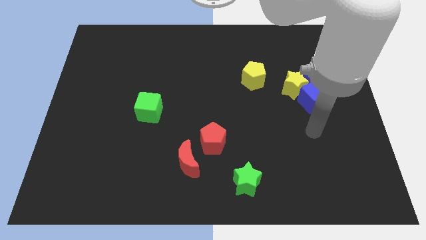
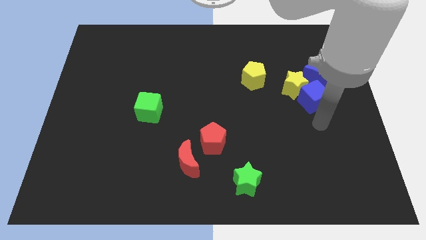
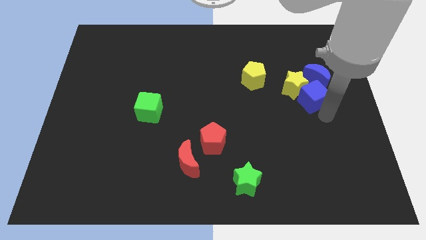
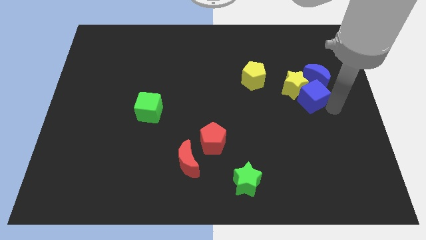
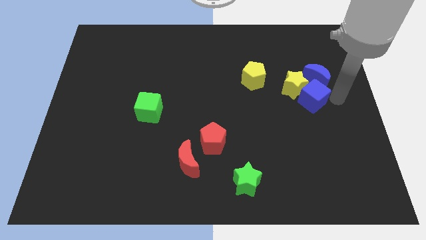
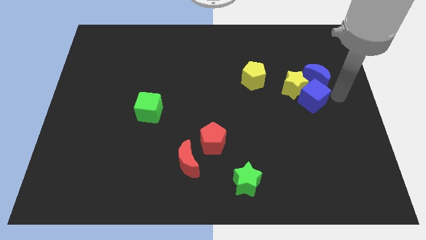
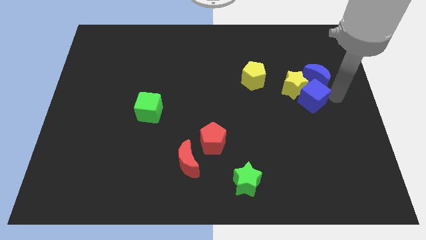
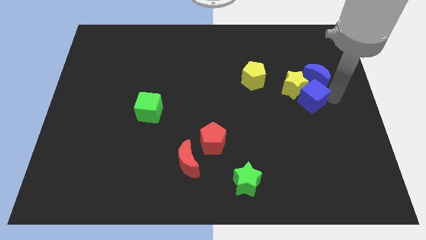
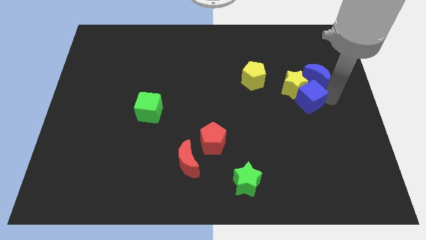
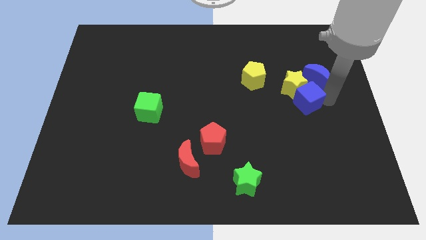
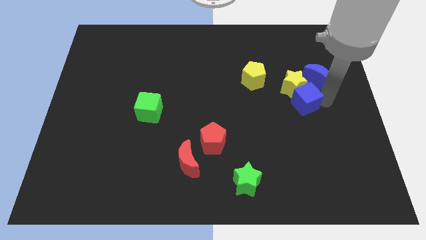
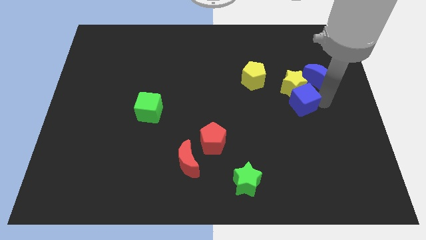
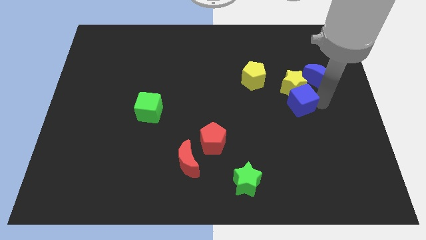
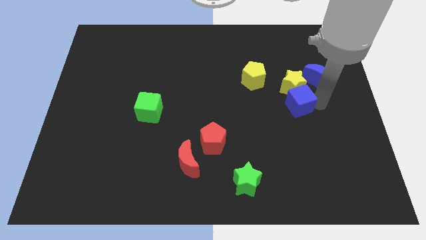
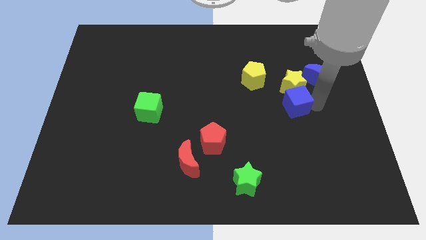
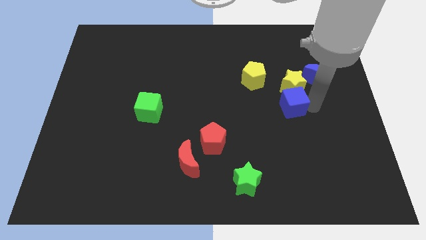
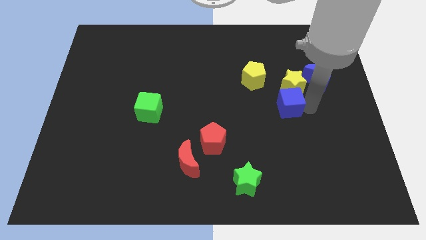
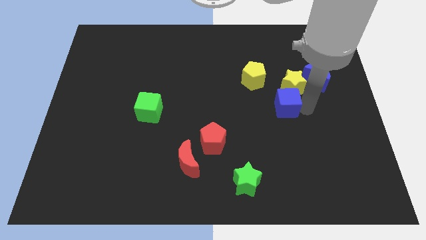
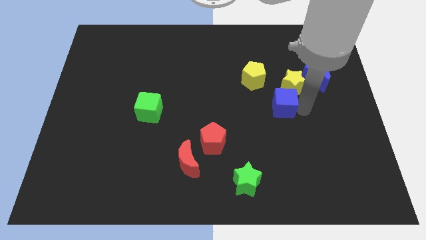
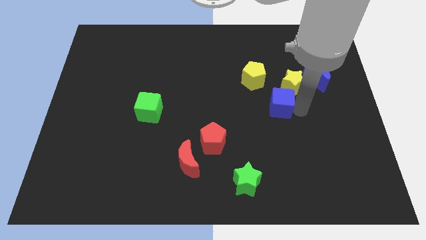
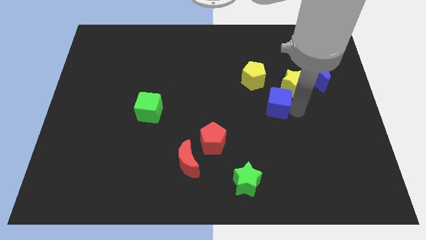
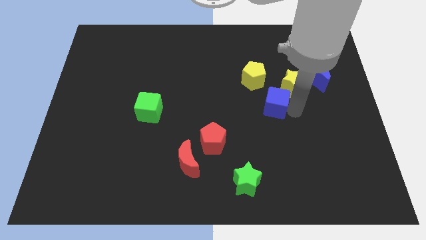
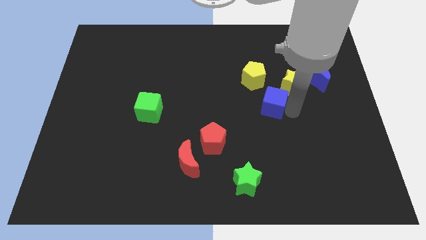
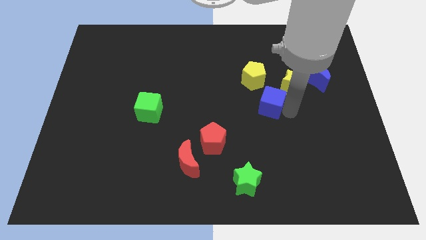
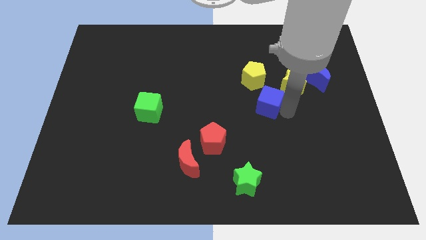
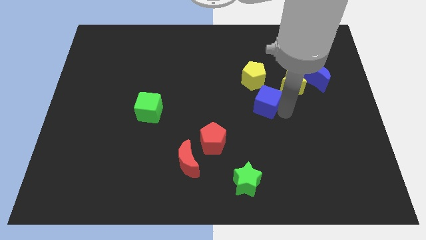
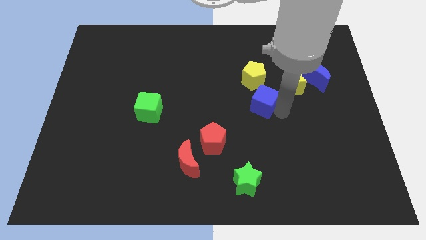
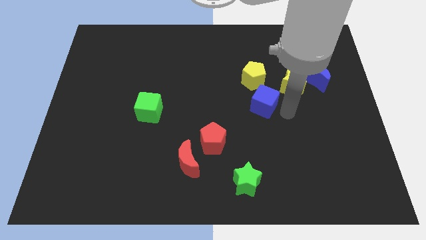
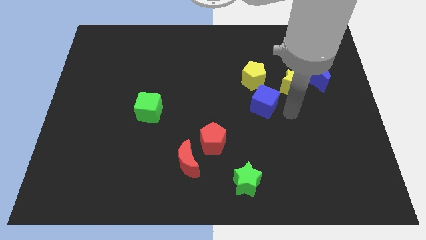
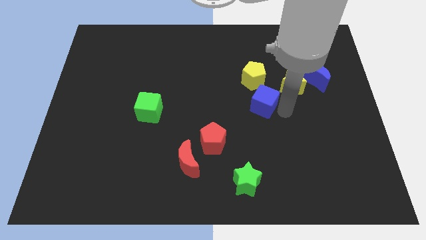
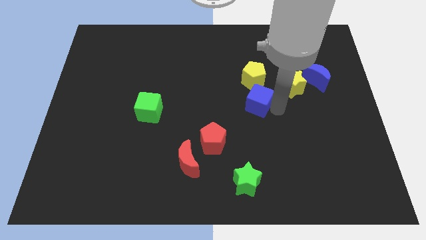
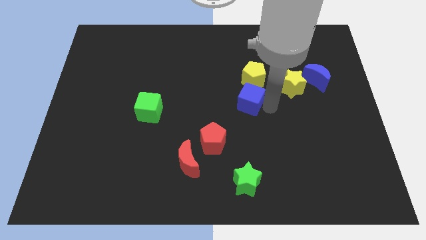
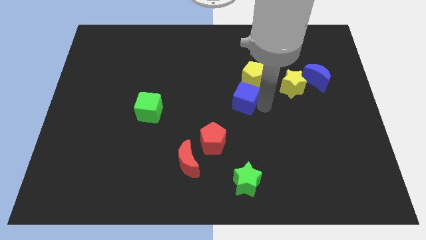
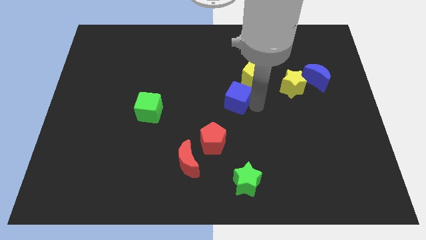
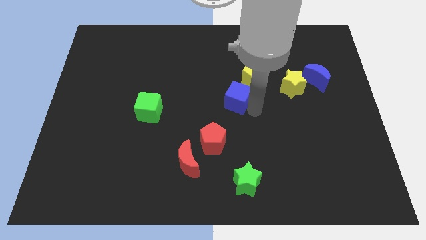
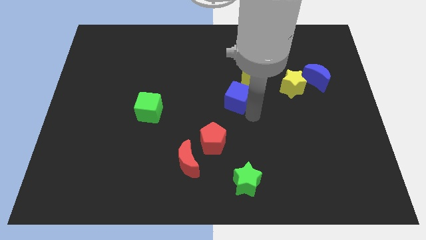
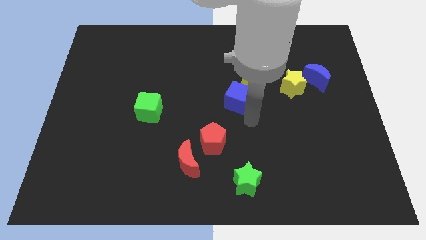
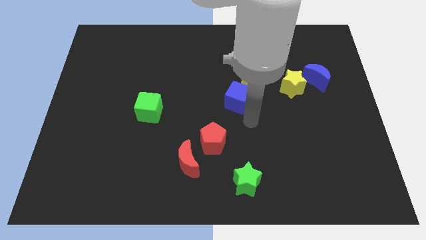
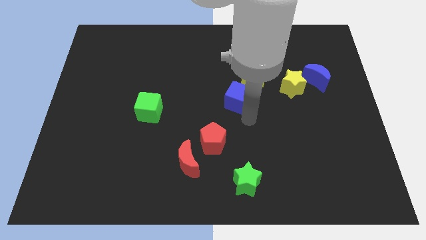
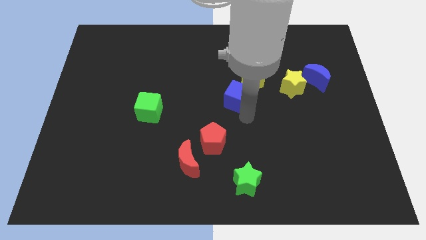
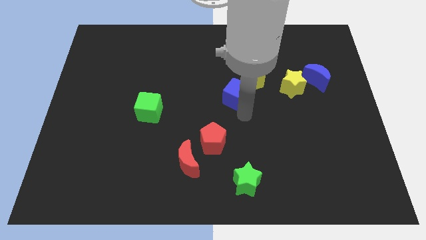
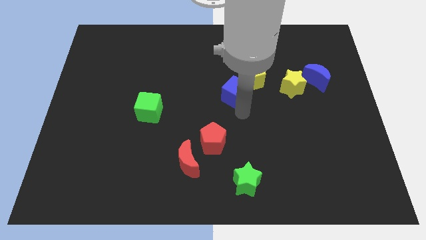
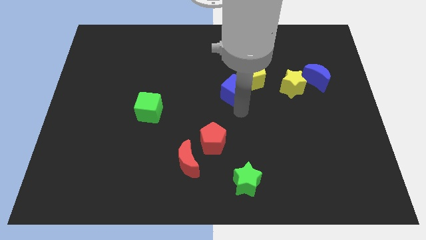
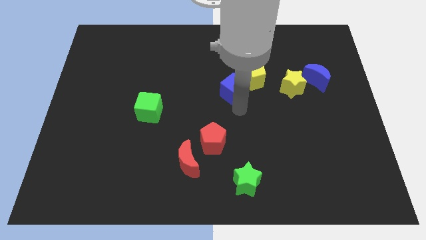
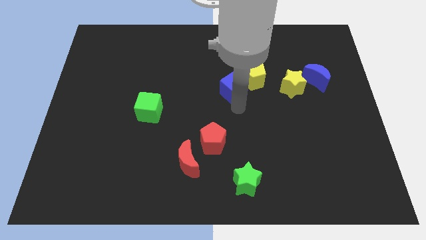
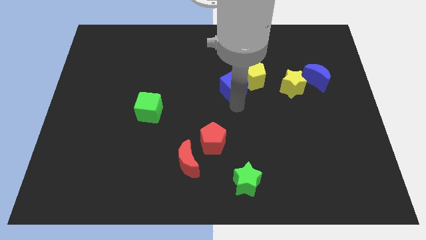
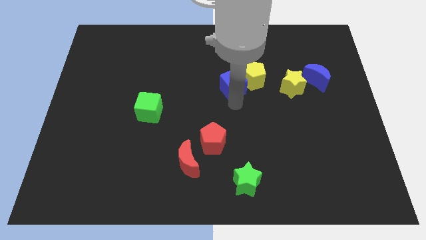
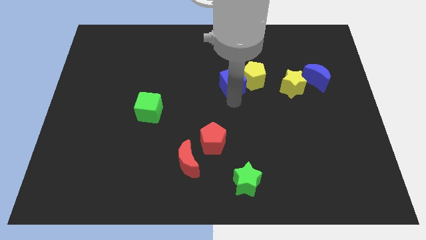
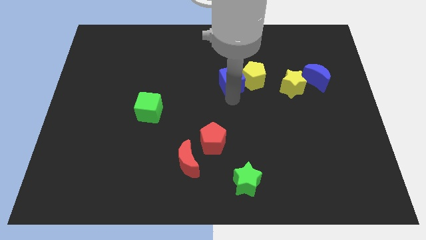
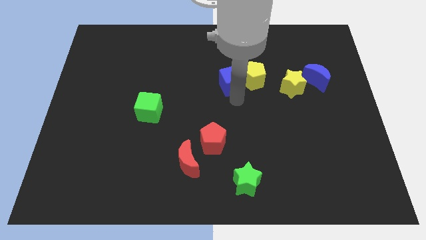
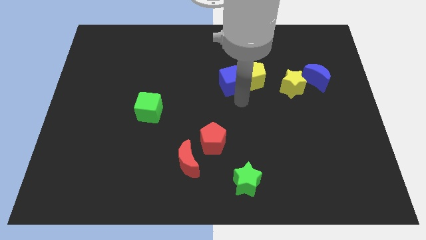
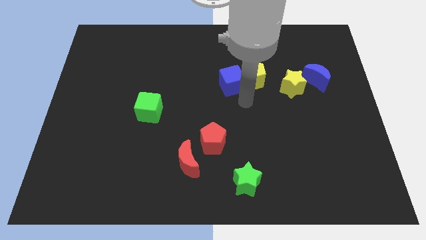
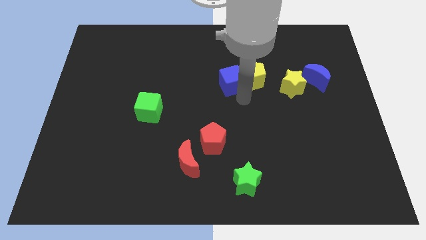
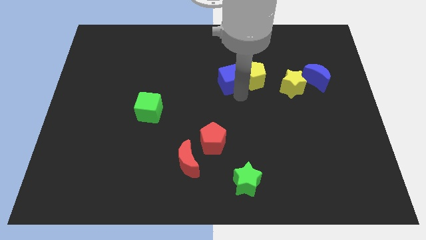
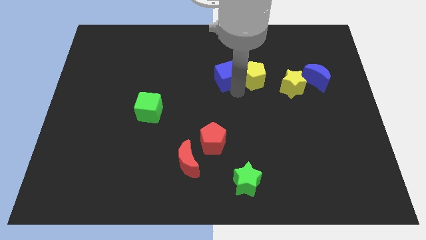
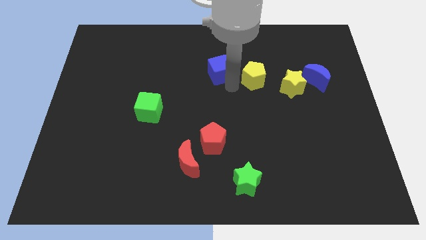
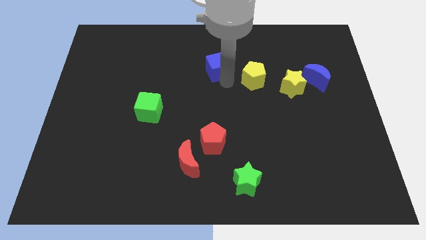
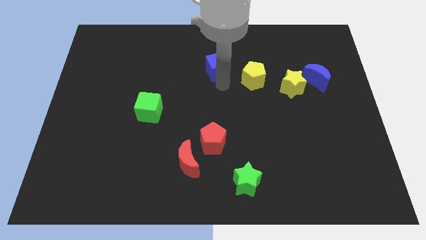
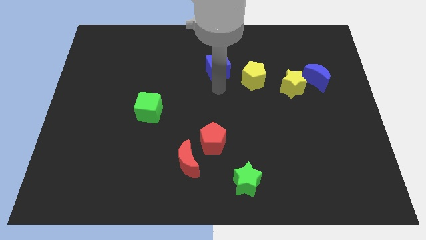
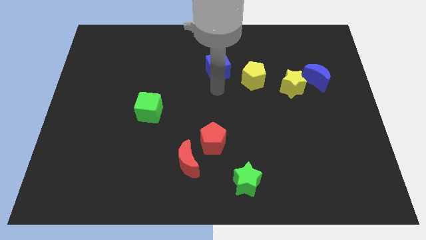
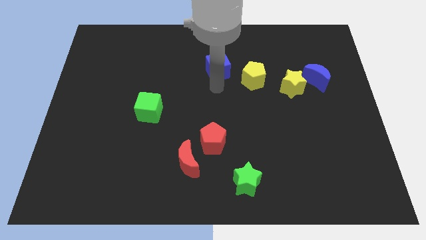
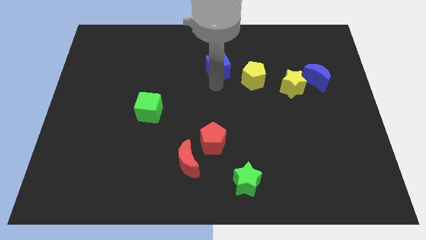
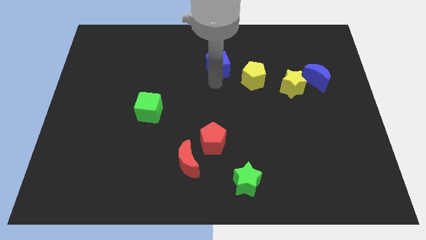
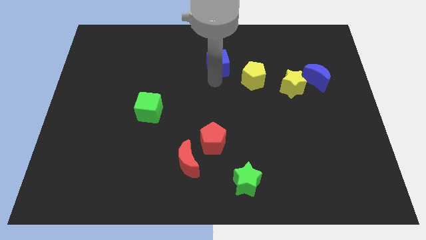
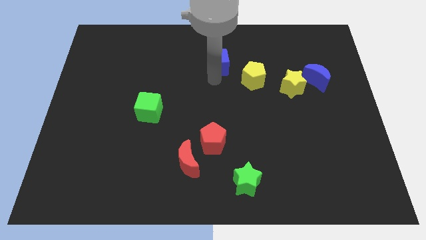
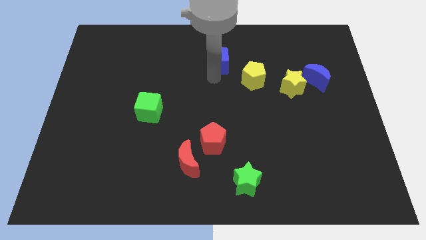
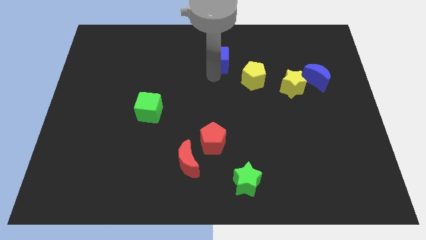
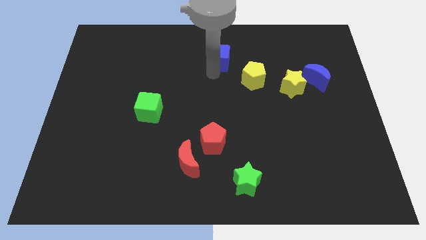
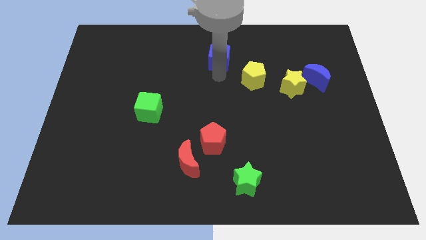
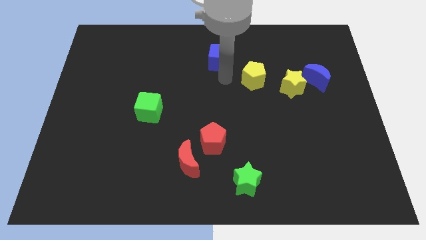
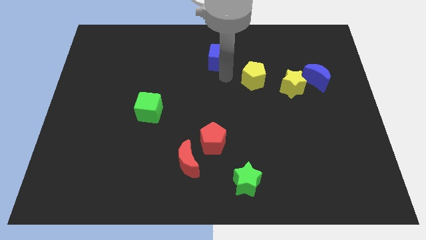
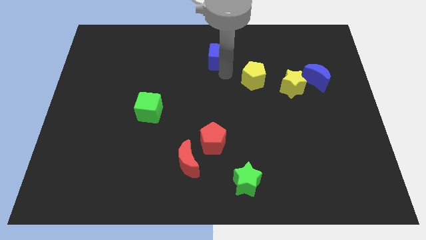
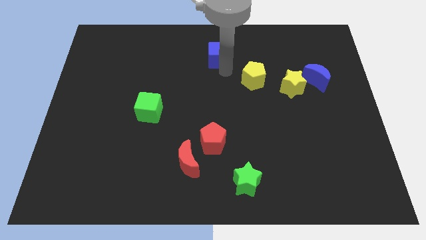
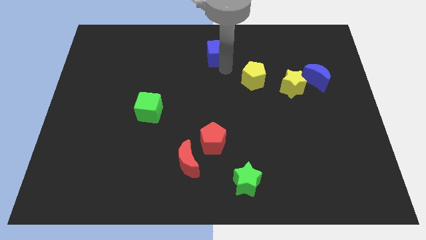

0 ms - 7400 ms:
put the blue cube to the towards your base
